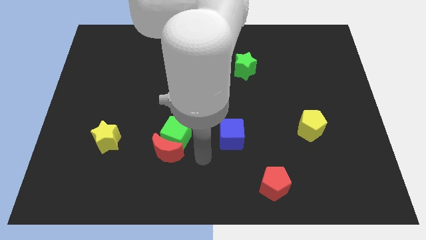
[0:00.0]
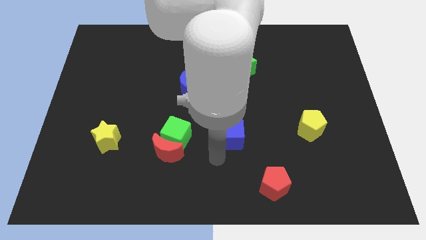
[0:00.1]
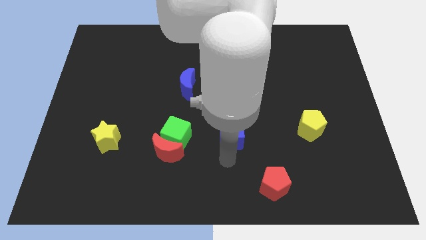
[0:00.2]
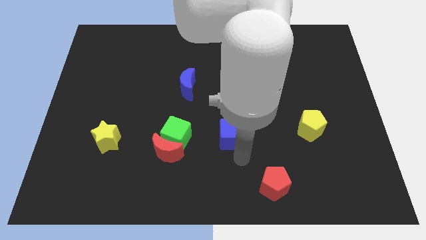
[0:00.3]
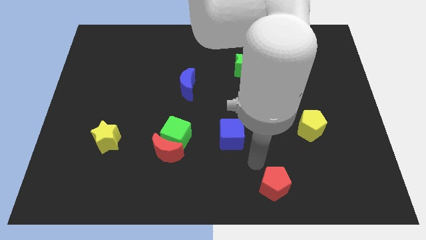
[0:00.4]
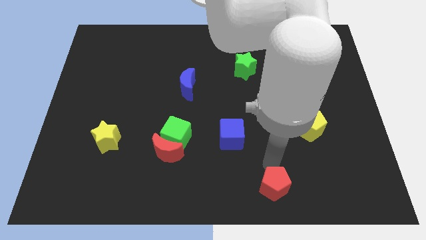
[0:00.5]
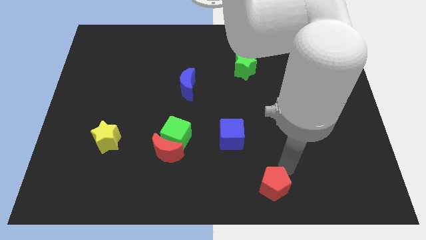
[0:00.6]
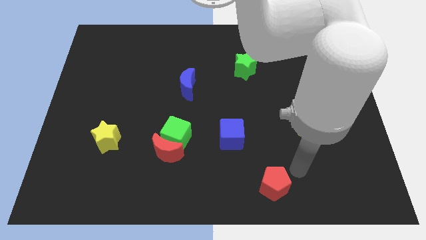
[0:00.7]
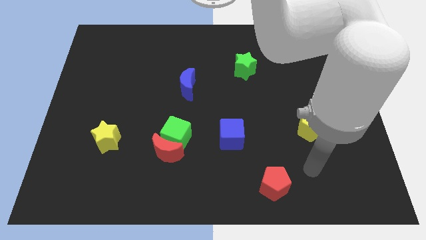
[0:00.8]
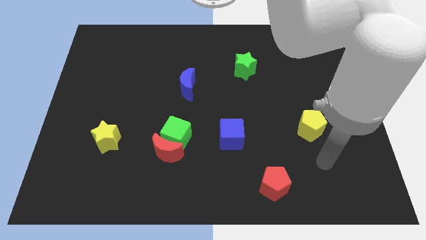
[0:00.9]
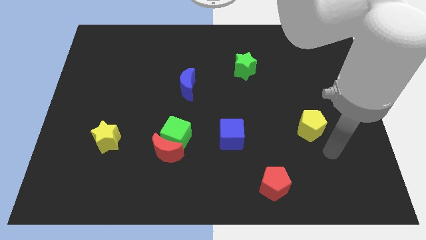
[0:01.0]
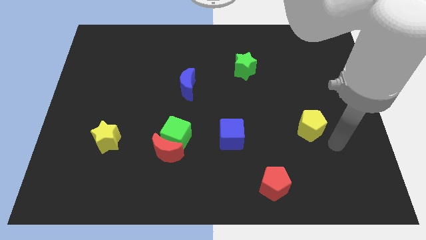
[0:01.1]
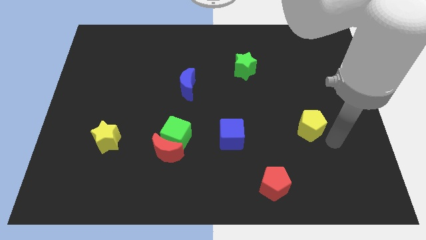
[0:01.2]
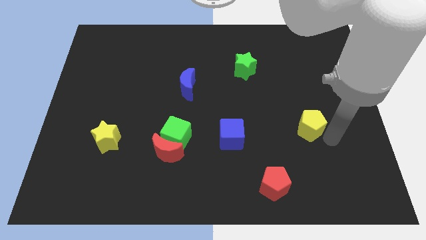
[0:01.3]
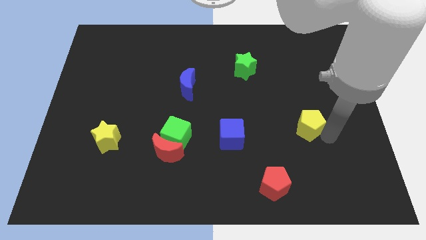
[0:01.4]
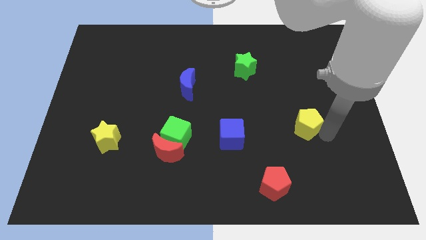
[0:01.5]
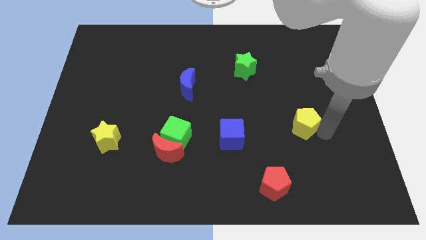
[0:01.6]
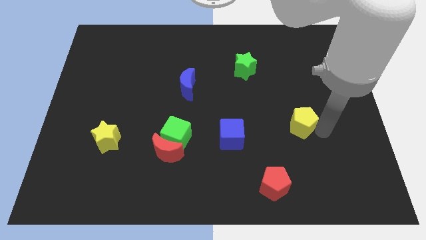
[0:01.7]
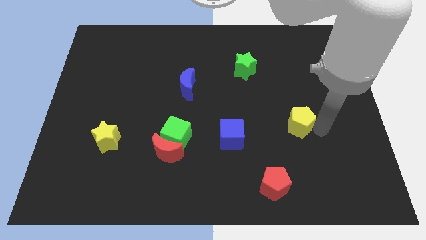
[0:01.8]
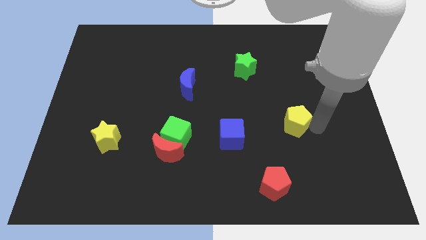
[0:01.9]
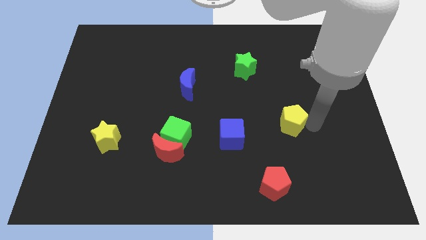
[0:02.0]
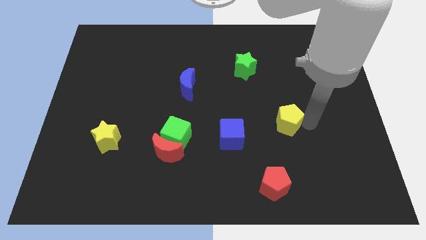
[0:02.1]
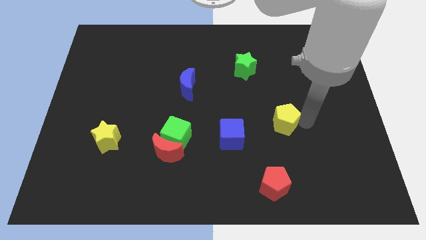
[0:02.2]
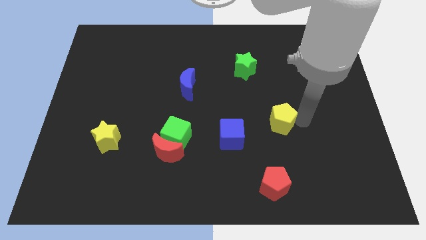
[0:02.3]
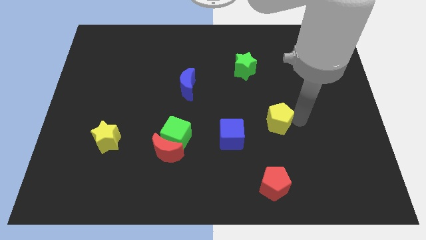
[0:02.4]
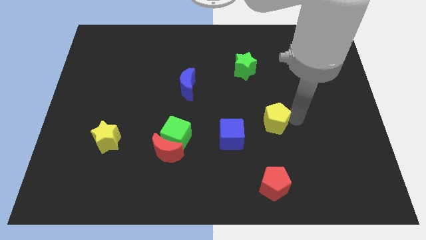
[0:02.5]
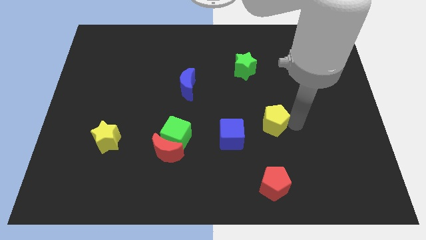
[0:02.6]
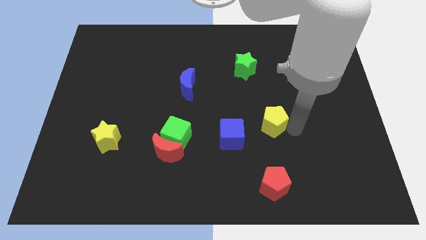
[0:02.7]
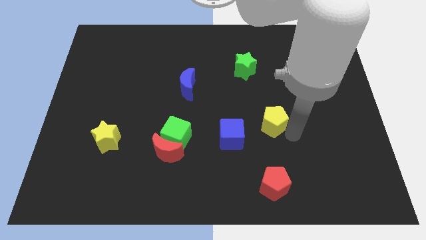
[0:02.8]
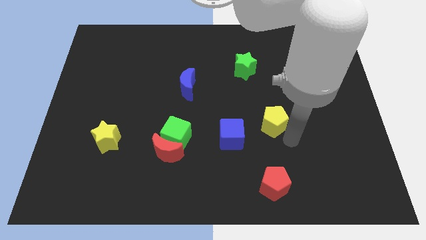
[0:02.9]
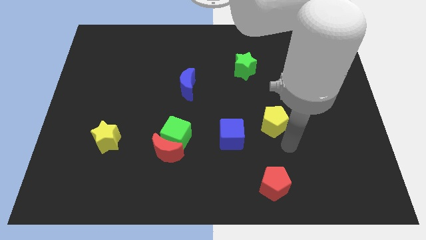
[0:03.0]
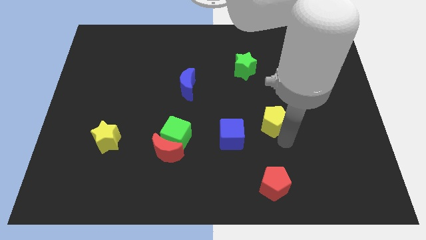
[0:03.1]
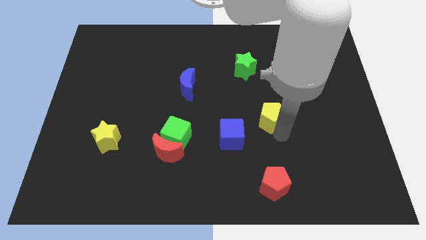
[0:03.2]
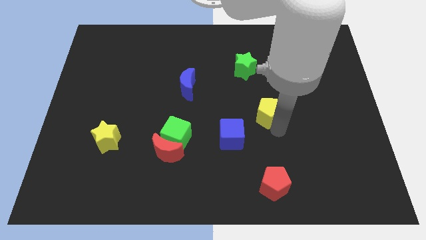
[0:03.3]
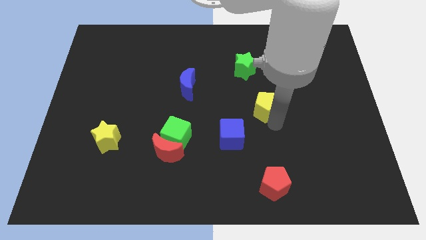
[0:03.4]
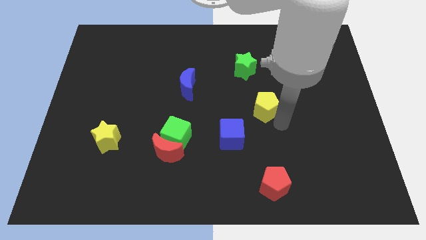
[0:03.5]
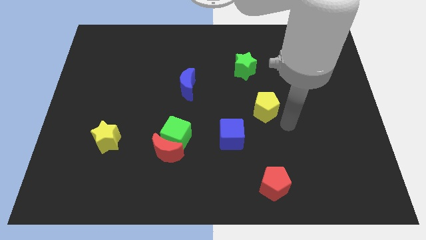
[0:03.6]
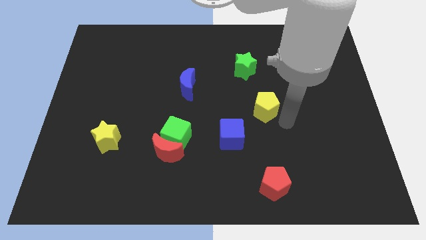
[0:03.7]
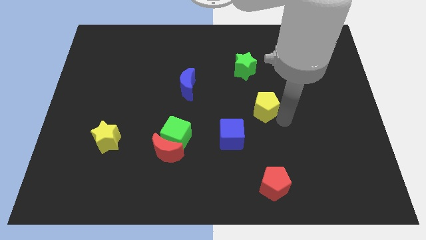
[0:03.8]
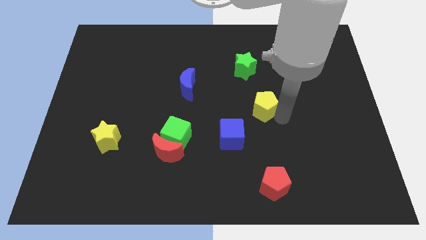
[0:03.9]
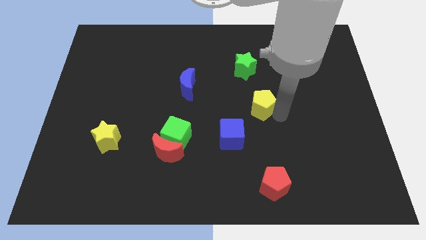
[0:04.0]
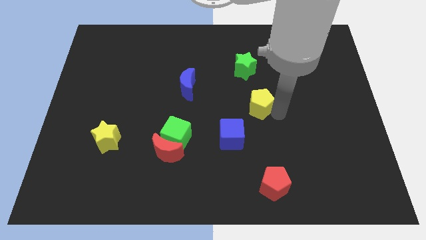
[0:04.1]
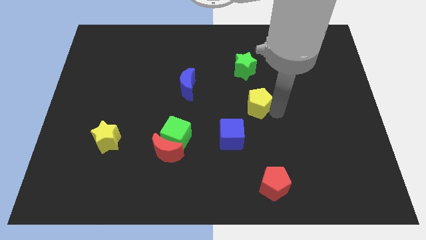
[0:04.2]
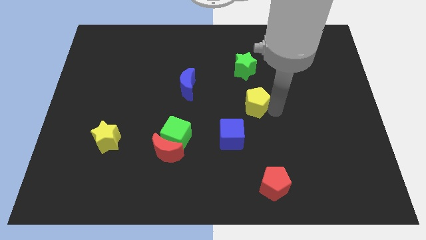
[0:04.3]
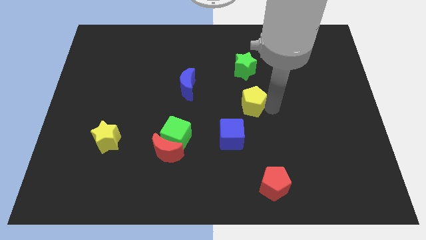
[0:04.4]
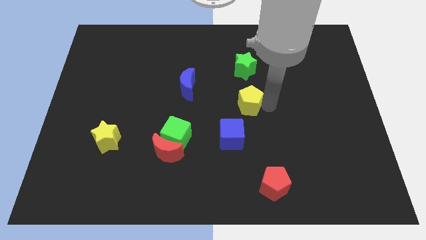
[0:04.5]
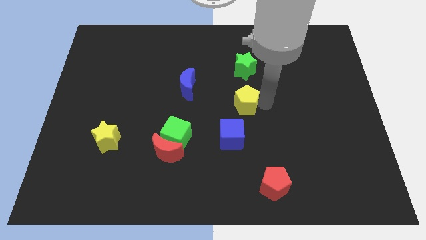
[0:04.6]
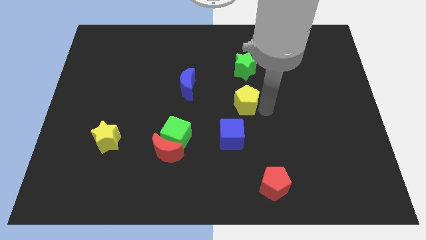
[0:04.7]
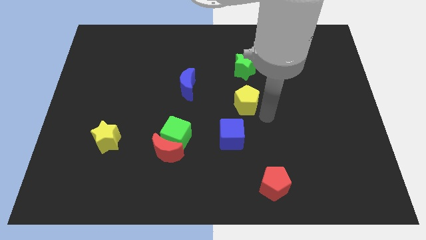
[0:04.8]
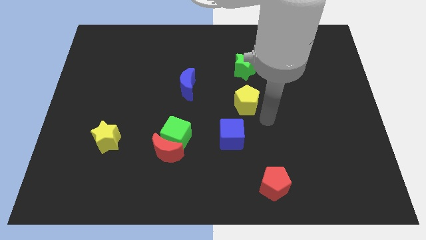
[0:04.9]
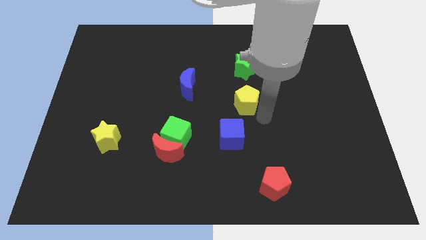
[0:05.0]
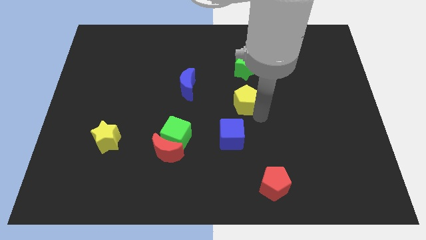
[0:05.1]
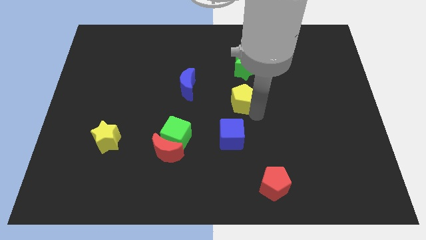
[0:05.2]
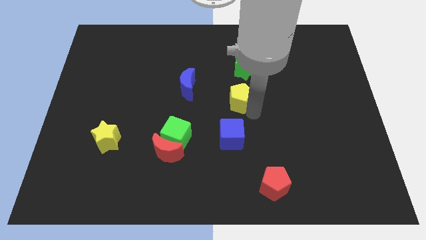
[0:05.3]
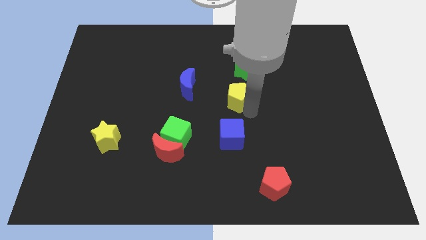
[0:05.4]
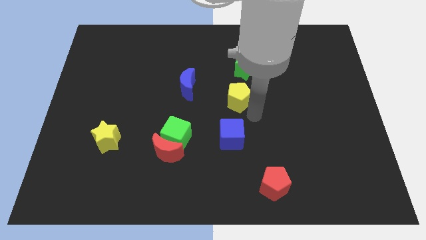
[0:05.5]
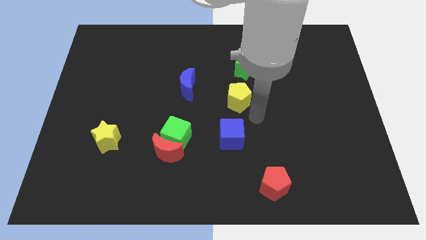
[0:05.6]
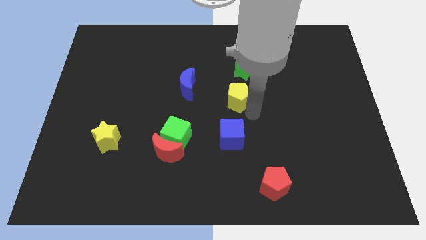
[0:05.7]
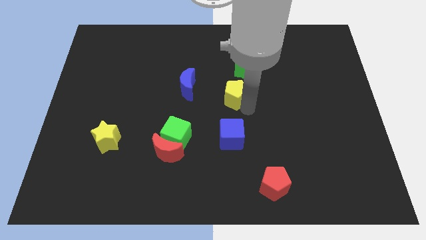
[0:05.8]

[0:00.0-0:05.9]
move the yellow pentagon to the bottom left side of the green star
